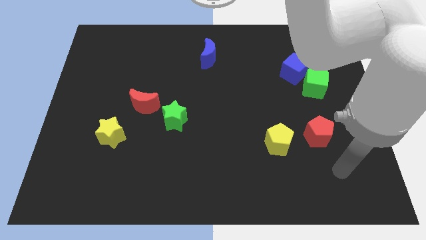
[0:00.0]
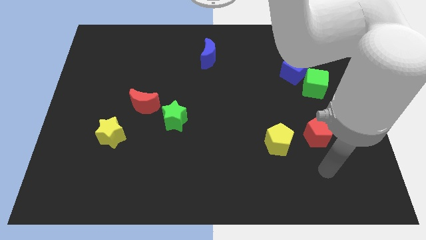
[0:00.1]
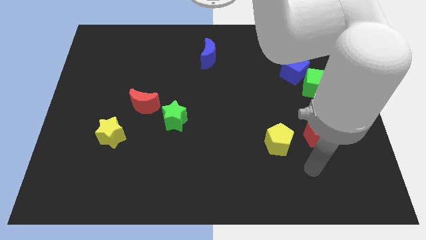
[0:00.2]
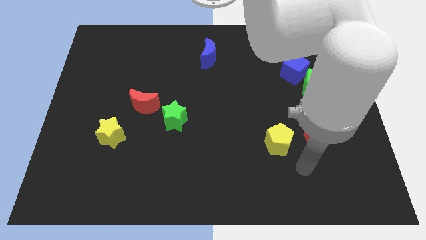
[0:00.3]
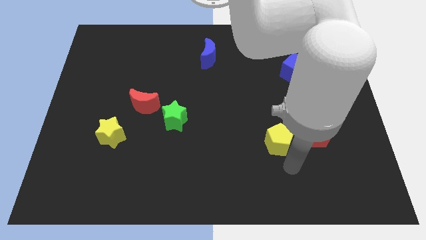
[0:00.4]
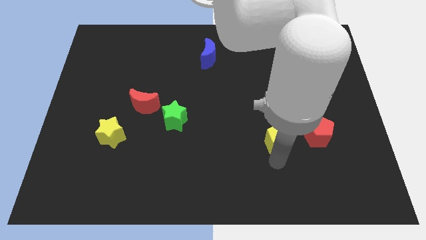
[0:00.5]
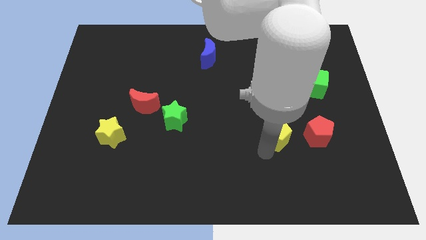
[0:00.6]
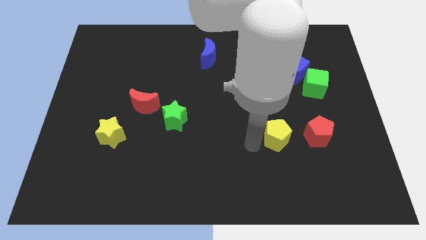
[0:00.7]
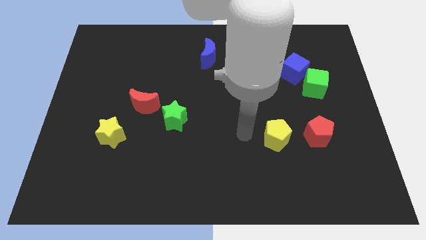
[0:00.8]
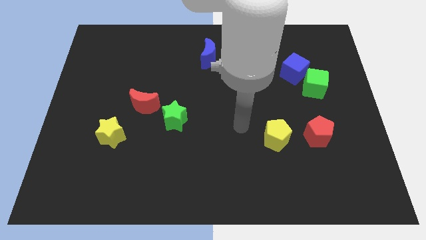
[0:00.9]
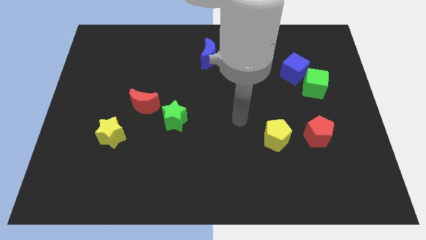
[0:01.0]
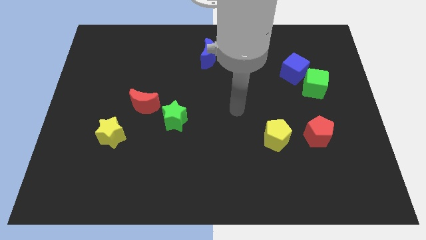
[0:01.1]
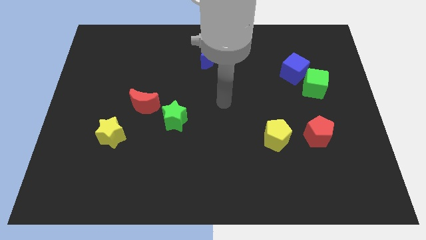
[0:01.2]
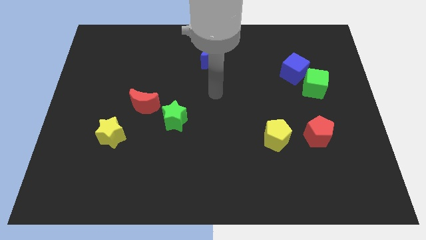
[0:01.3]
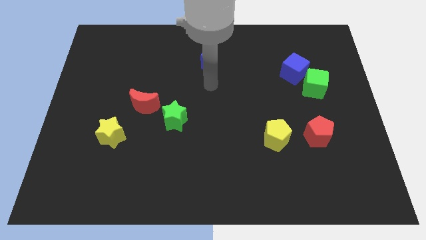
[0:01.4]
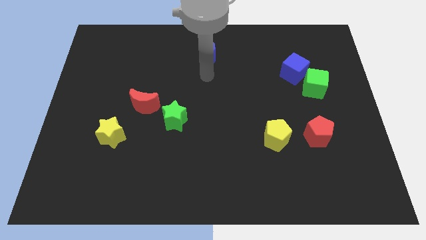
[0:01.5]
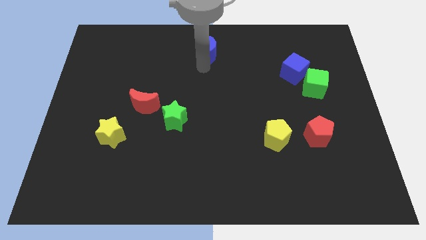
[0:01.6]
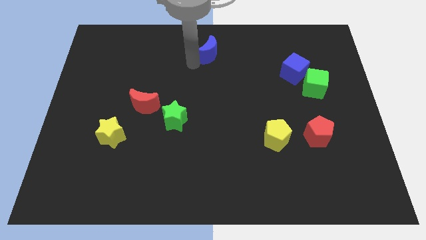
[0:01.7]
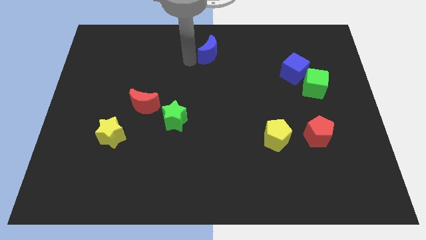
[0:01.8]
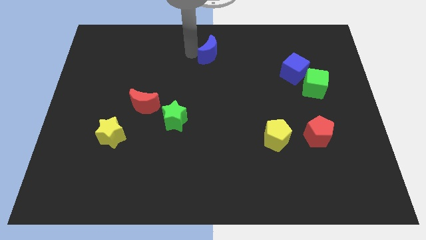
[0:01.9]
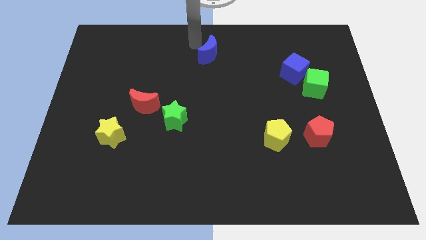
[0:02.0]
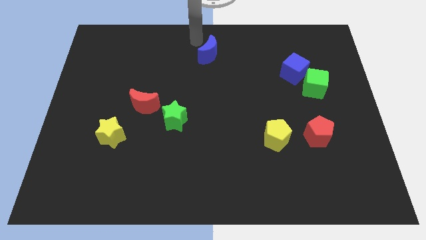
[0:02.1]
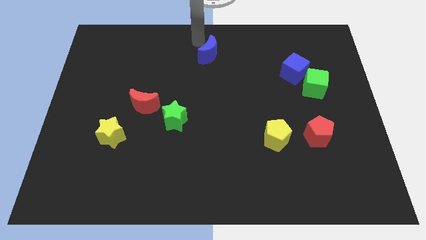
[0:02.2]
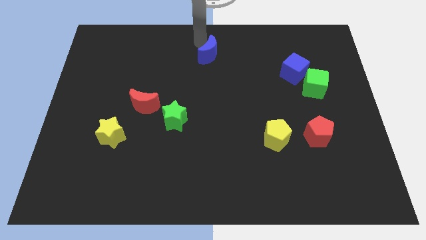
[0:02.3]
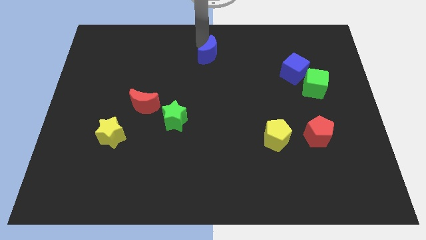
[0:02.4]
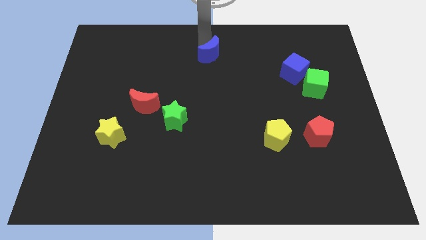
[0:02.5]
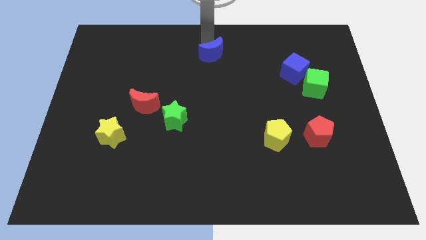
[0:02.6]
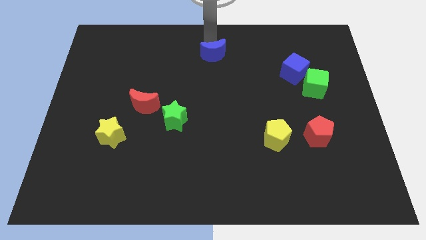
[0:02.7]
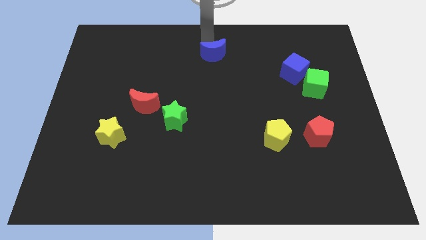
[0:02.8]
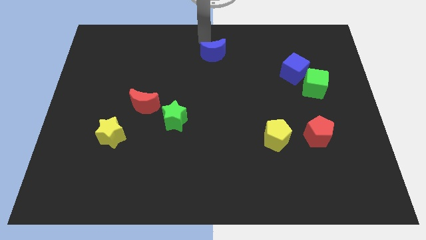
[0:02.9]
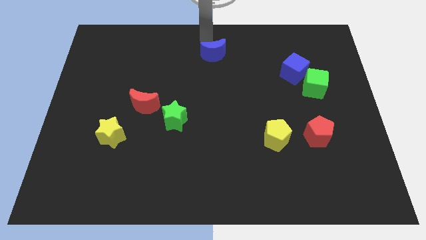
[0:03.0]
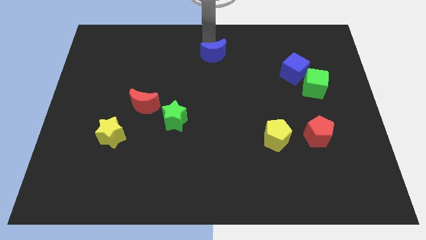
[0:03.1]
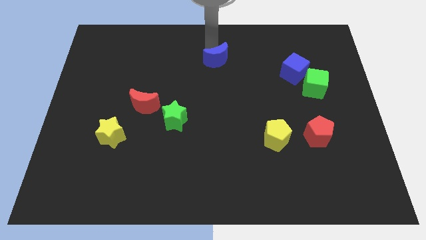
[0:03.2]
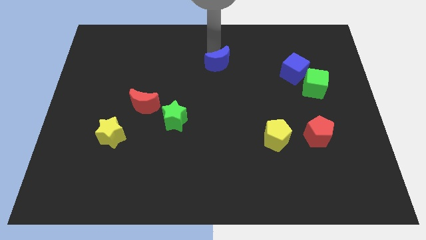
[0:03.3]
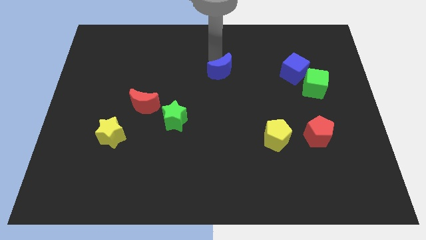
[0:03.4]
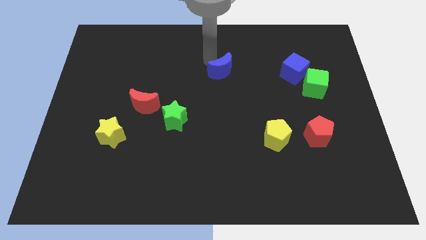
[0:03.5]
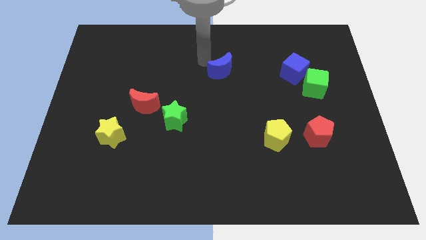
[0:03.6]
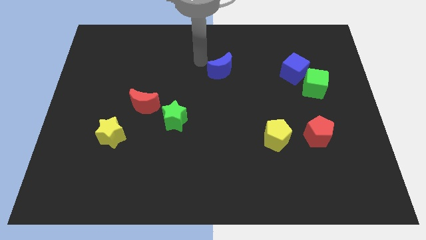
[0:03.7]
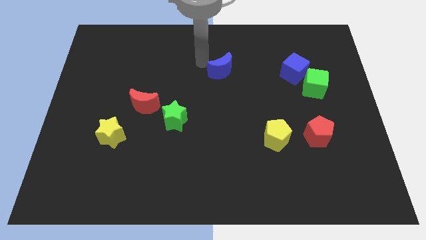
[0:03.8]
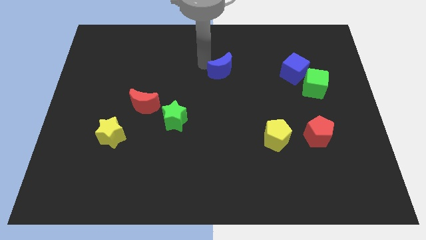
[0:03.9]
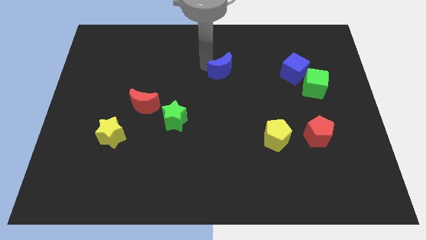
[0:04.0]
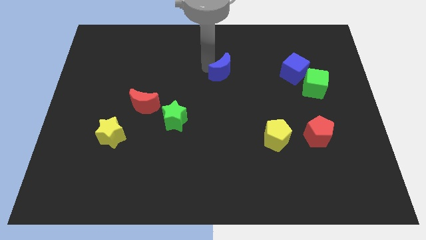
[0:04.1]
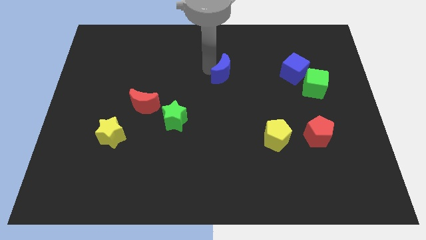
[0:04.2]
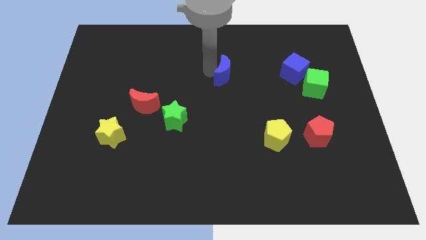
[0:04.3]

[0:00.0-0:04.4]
move the blue moon a little bit down and then to the right

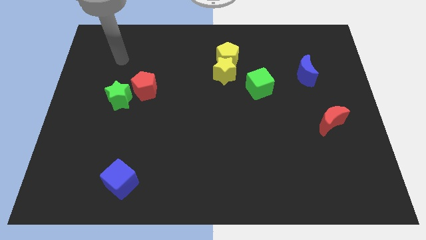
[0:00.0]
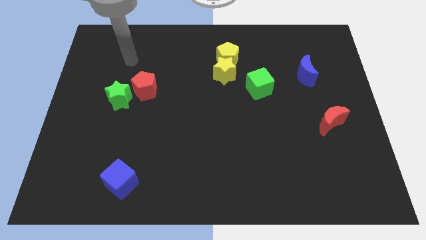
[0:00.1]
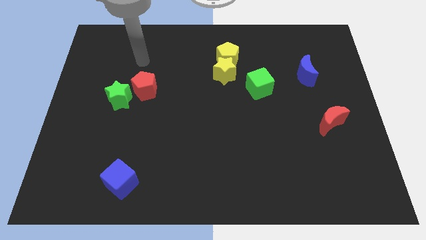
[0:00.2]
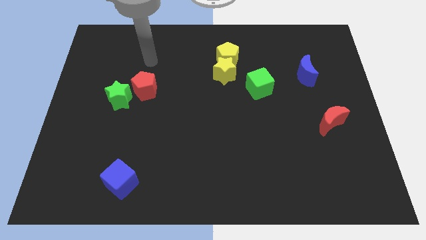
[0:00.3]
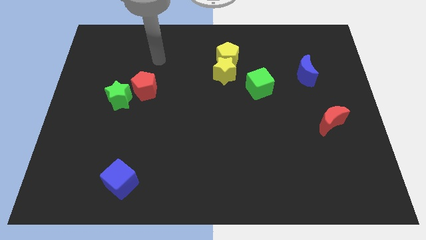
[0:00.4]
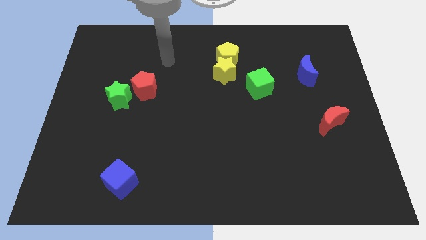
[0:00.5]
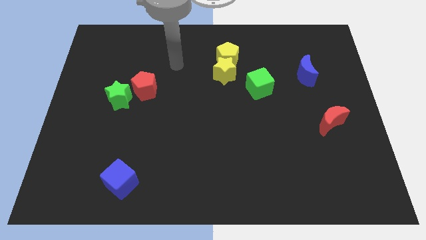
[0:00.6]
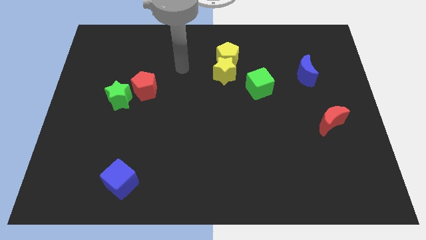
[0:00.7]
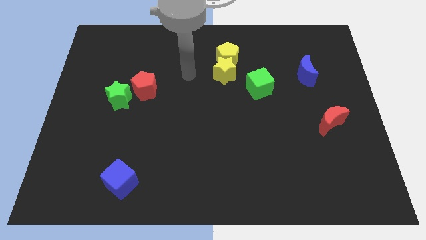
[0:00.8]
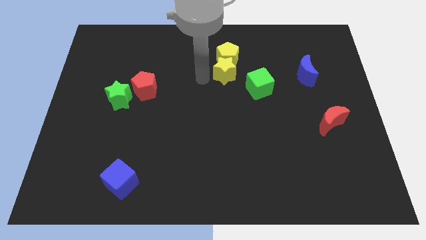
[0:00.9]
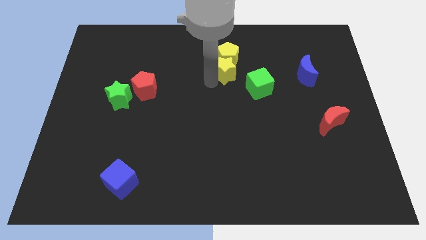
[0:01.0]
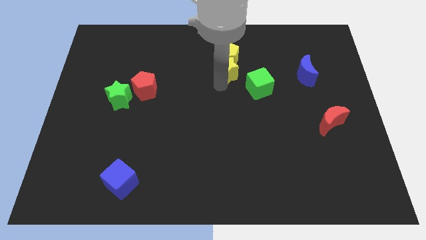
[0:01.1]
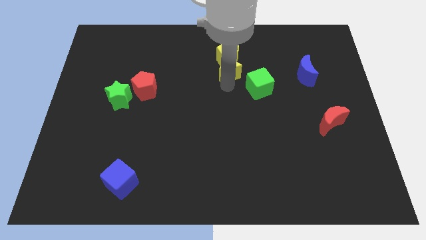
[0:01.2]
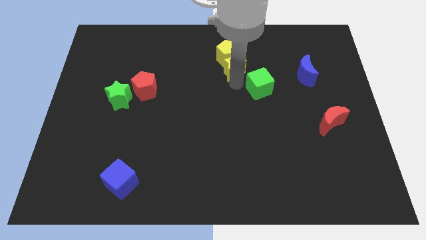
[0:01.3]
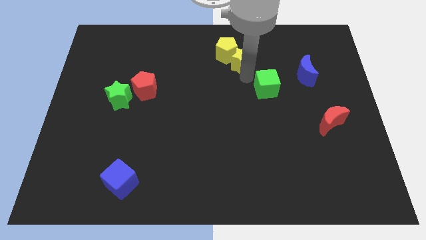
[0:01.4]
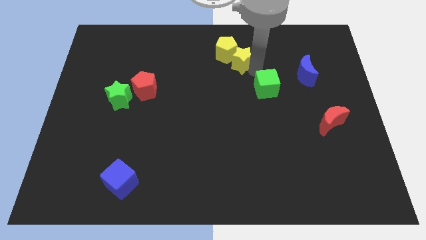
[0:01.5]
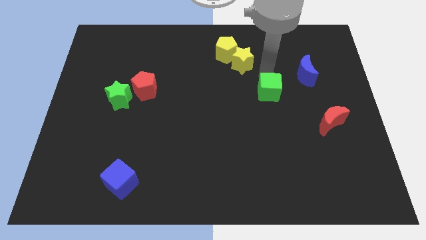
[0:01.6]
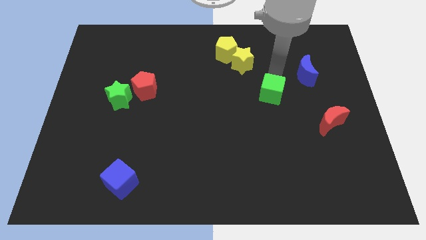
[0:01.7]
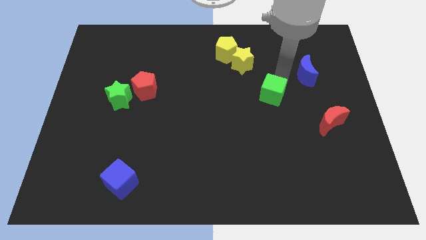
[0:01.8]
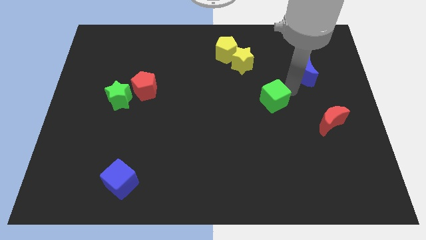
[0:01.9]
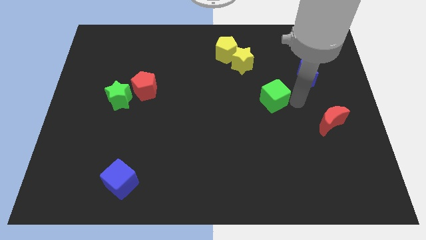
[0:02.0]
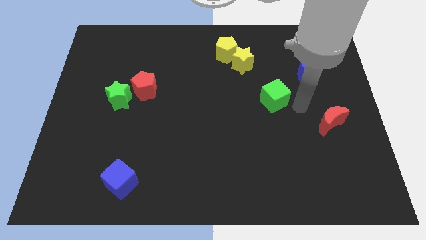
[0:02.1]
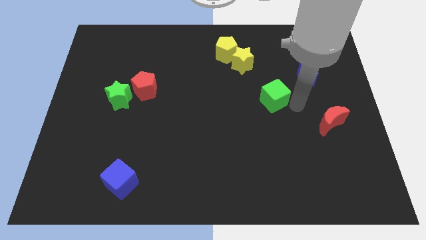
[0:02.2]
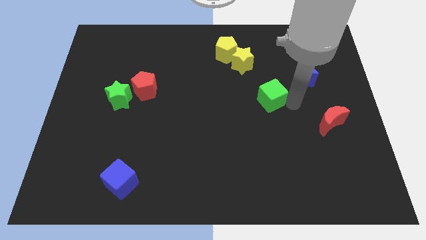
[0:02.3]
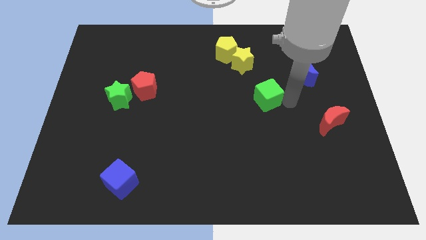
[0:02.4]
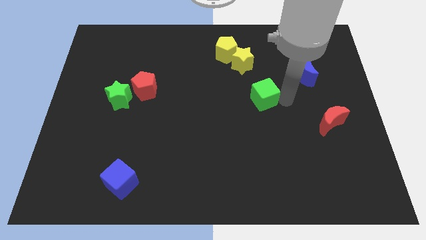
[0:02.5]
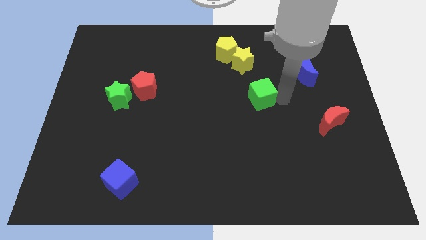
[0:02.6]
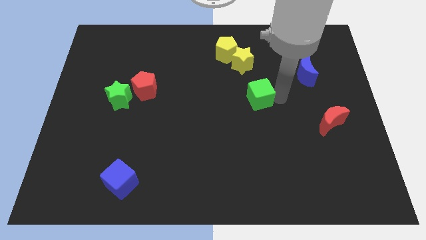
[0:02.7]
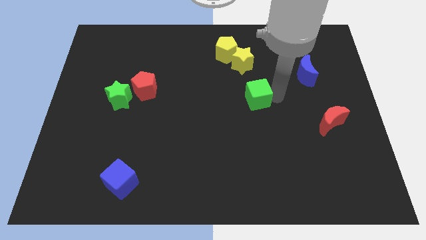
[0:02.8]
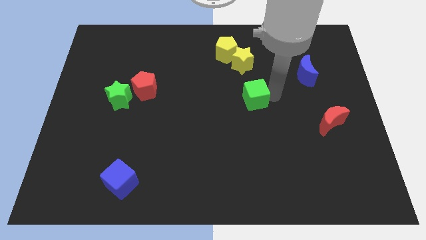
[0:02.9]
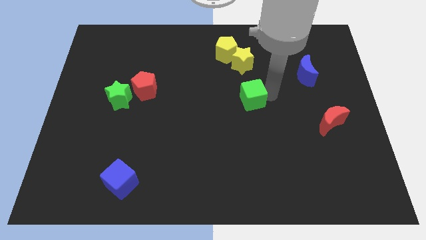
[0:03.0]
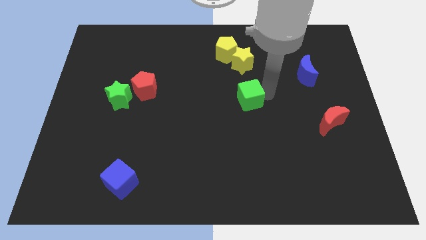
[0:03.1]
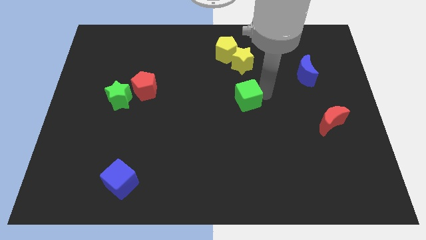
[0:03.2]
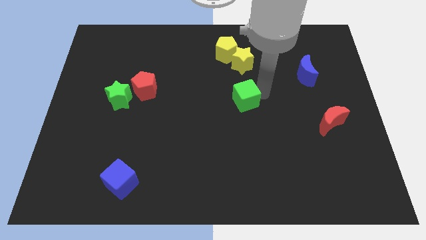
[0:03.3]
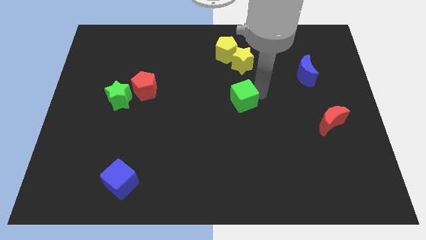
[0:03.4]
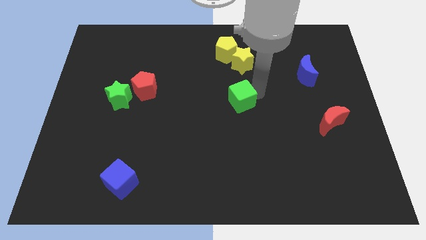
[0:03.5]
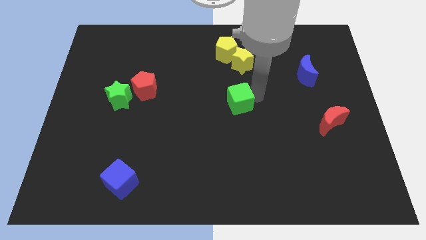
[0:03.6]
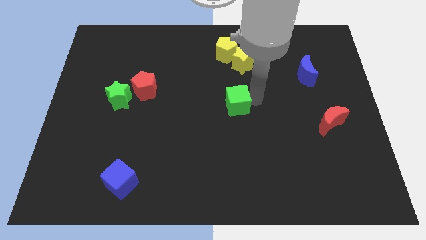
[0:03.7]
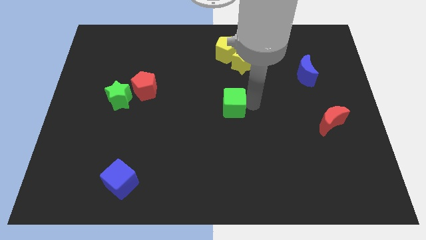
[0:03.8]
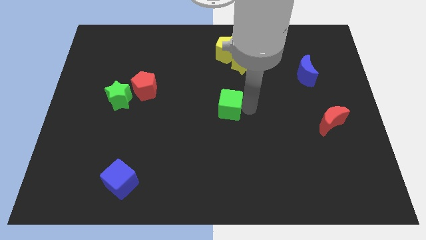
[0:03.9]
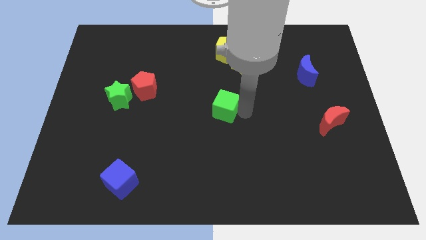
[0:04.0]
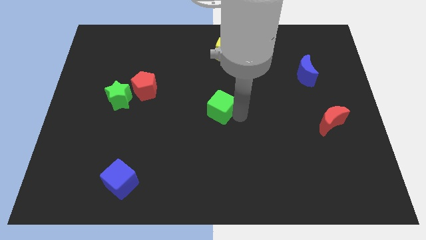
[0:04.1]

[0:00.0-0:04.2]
slide the green cube somewhat to the left
